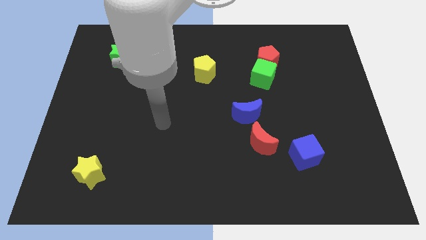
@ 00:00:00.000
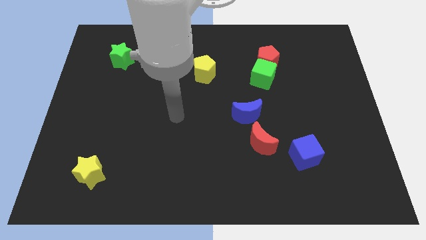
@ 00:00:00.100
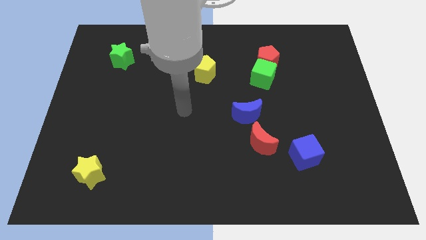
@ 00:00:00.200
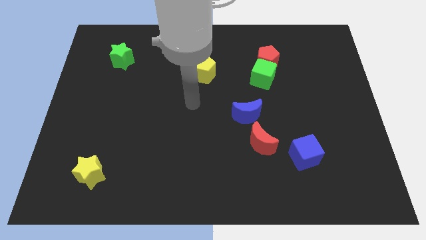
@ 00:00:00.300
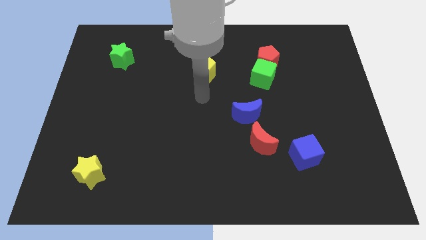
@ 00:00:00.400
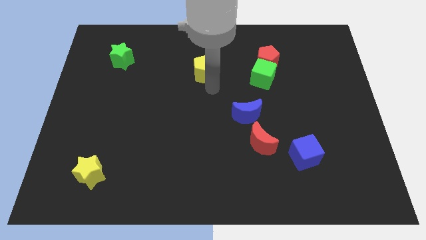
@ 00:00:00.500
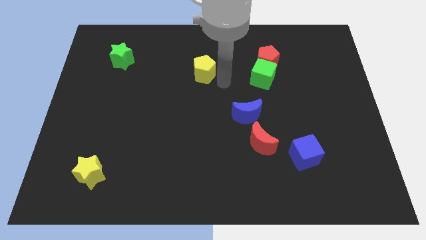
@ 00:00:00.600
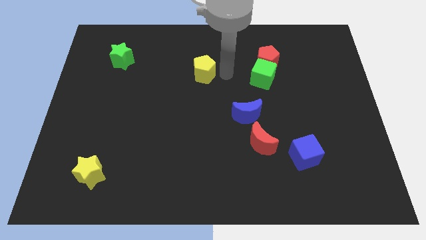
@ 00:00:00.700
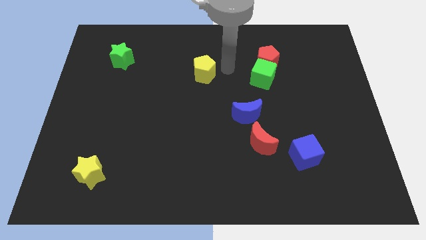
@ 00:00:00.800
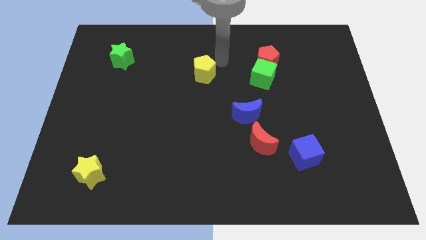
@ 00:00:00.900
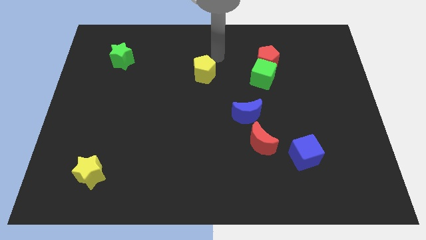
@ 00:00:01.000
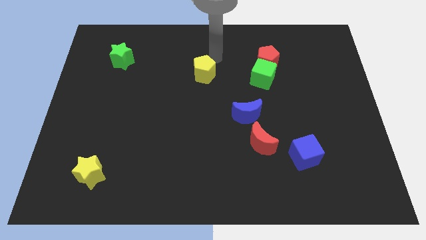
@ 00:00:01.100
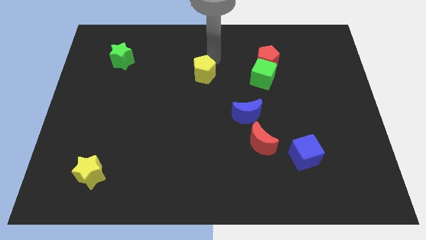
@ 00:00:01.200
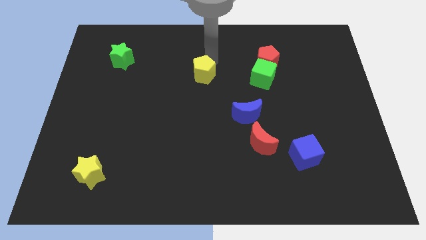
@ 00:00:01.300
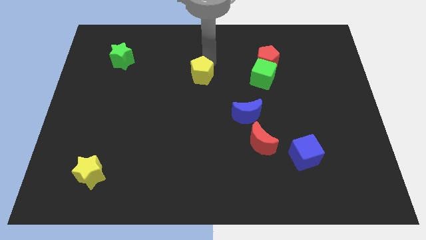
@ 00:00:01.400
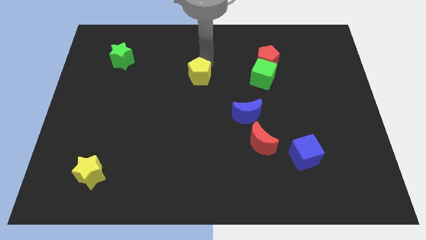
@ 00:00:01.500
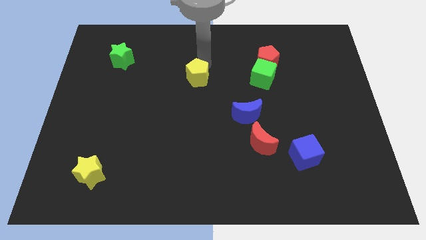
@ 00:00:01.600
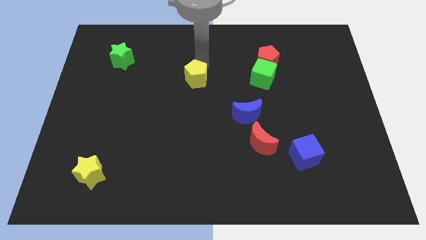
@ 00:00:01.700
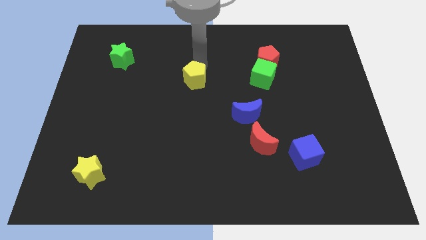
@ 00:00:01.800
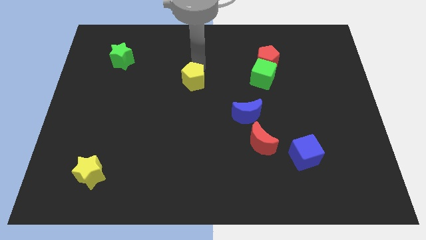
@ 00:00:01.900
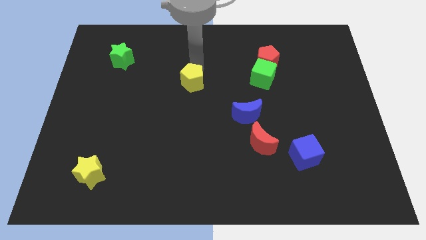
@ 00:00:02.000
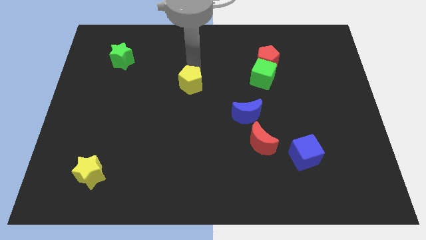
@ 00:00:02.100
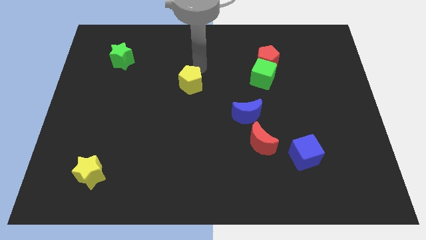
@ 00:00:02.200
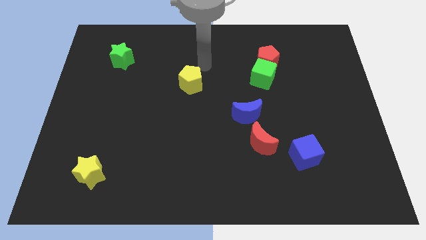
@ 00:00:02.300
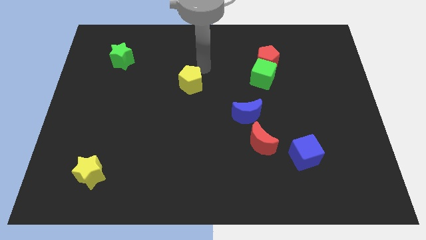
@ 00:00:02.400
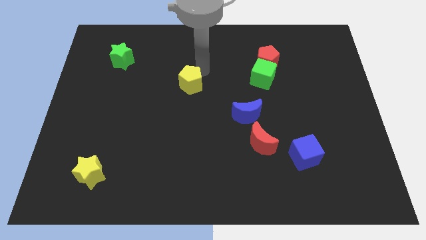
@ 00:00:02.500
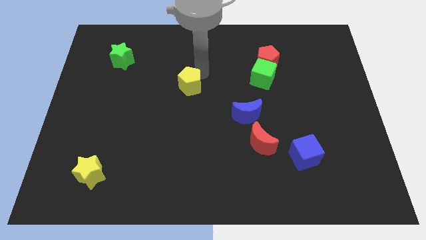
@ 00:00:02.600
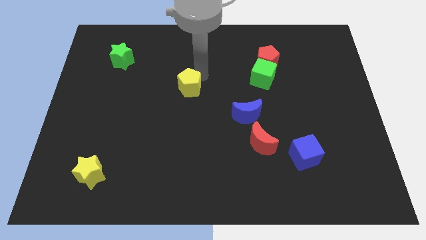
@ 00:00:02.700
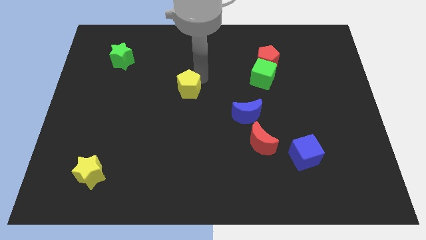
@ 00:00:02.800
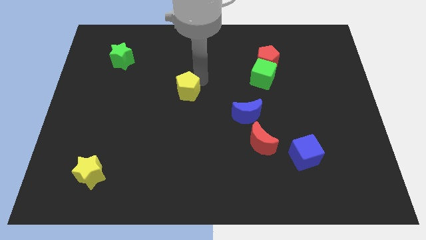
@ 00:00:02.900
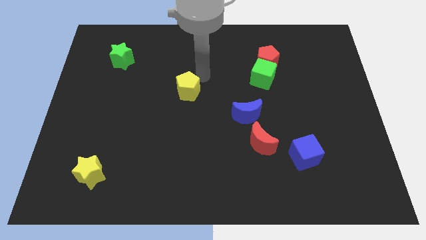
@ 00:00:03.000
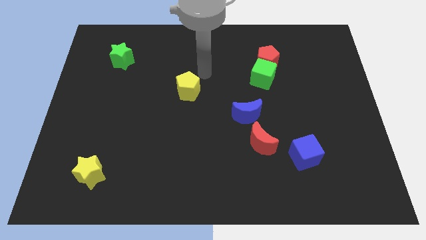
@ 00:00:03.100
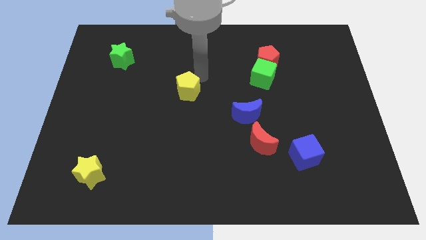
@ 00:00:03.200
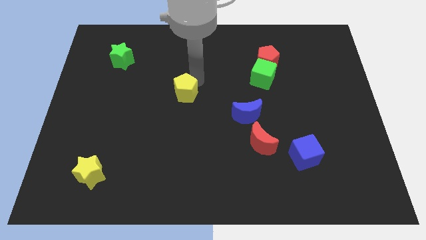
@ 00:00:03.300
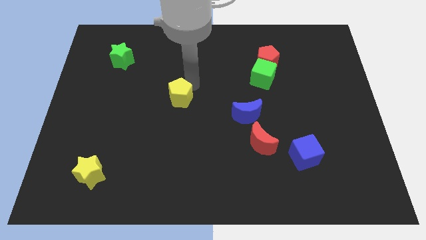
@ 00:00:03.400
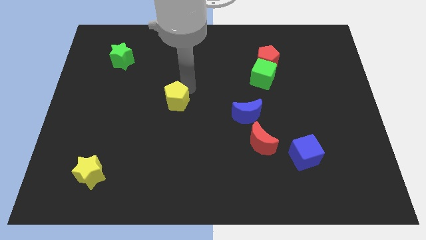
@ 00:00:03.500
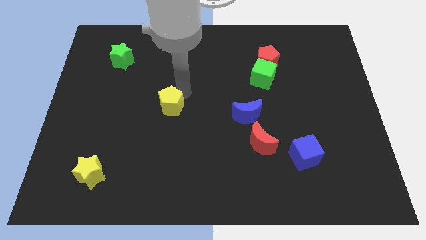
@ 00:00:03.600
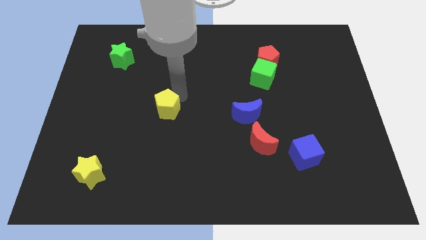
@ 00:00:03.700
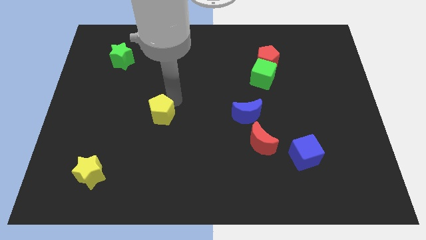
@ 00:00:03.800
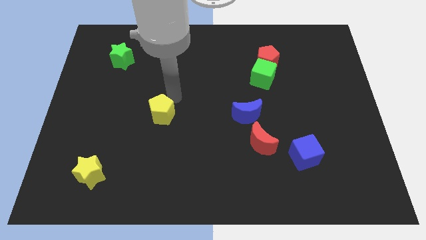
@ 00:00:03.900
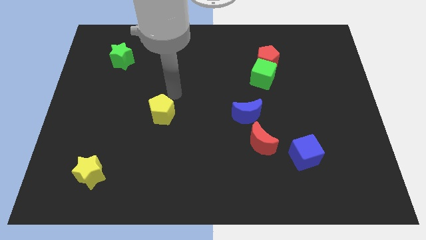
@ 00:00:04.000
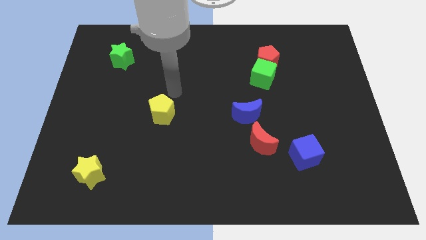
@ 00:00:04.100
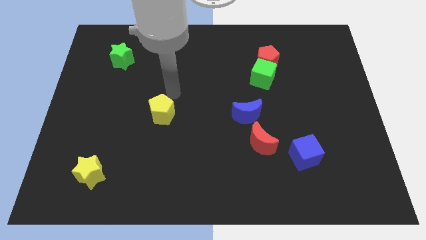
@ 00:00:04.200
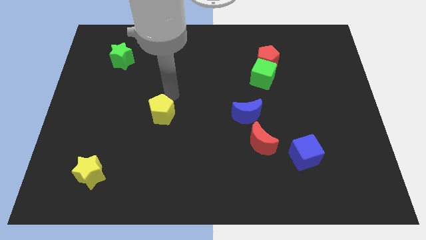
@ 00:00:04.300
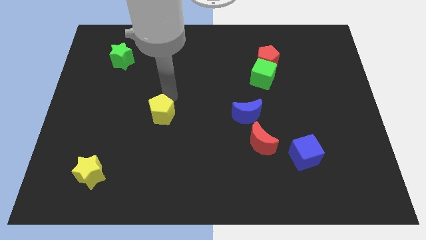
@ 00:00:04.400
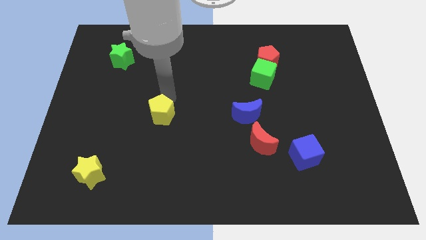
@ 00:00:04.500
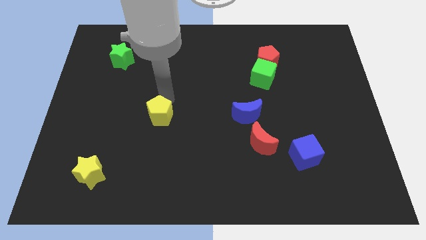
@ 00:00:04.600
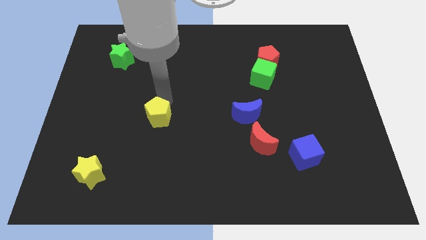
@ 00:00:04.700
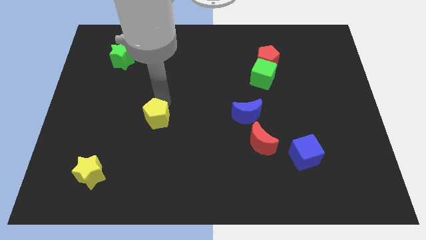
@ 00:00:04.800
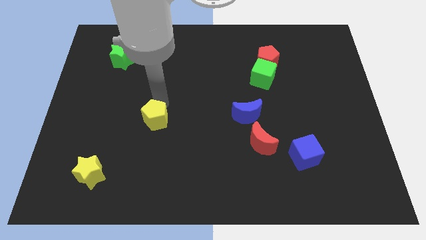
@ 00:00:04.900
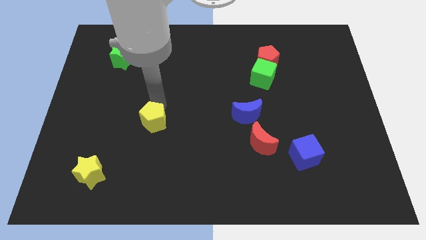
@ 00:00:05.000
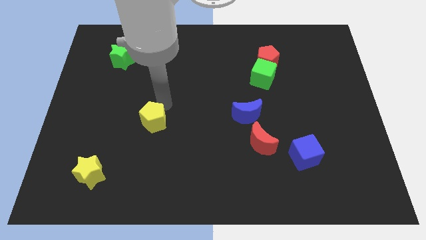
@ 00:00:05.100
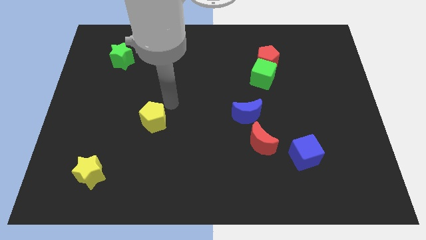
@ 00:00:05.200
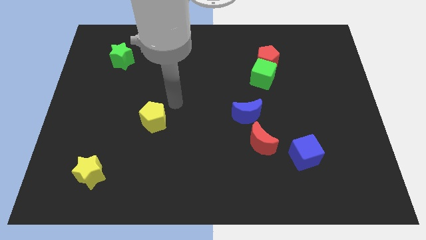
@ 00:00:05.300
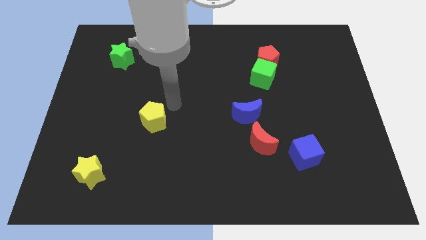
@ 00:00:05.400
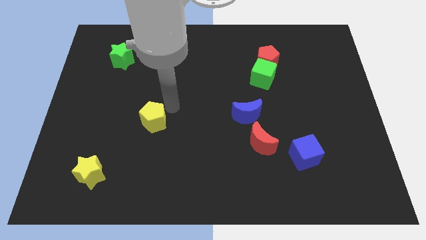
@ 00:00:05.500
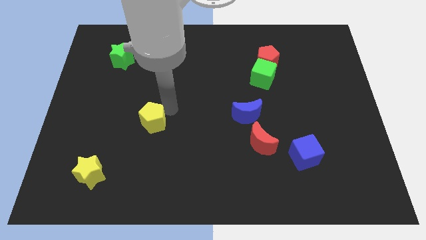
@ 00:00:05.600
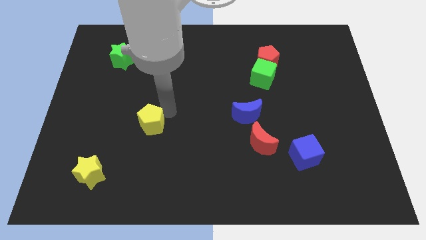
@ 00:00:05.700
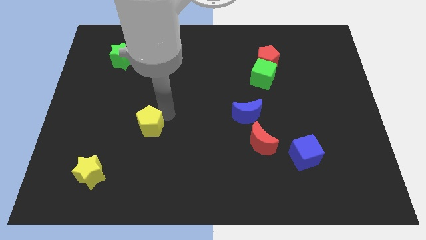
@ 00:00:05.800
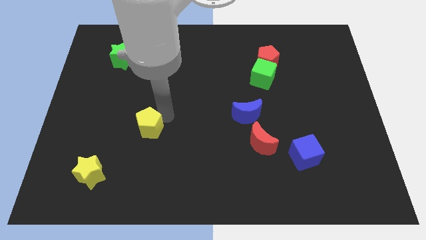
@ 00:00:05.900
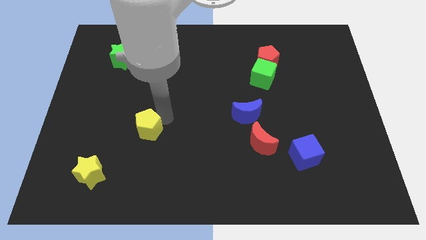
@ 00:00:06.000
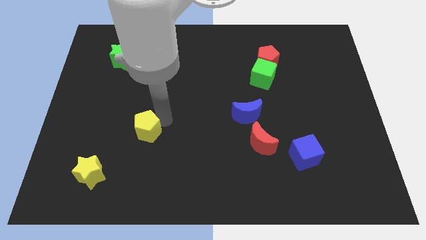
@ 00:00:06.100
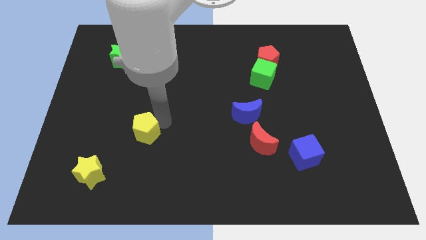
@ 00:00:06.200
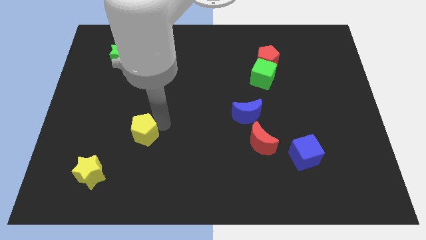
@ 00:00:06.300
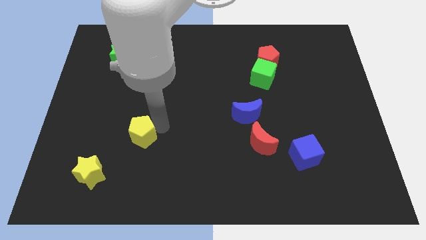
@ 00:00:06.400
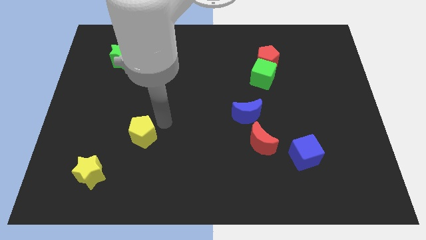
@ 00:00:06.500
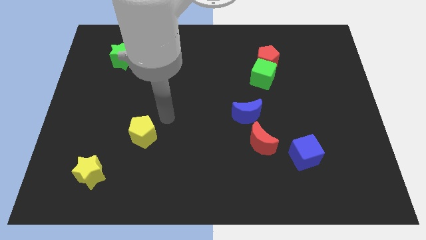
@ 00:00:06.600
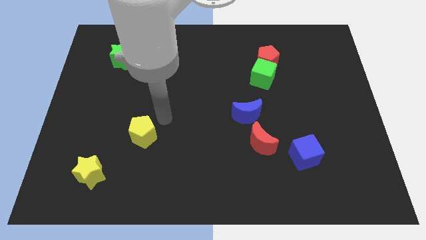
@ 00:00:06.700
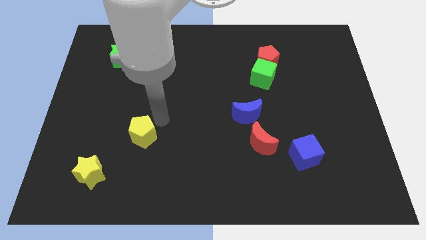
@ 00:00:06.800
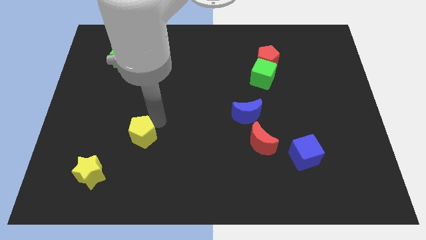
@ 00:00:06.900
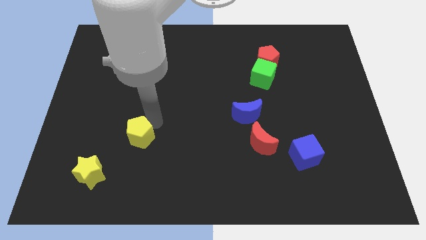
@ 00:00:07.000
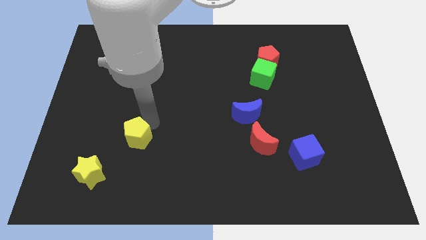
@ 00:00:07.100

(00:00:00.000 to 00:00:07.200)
move the yellow pentagon diagonally up and to the right of the yellow star

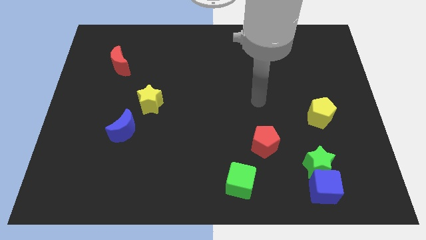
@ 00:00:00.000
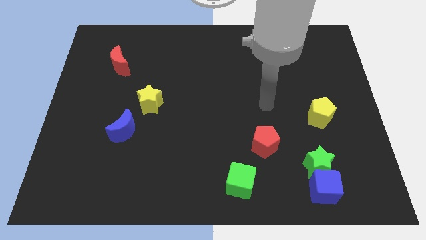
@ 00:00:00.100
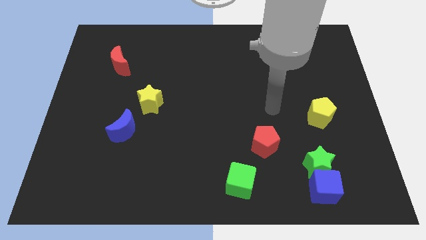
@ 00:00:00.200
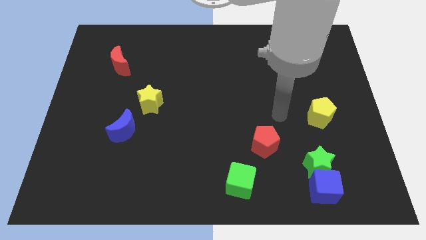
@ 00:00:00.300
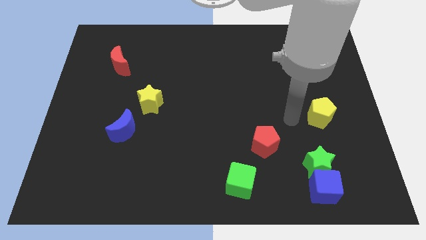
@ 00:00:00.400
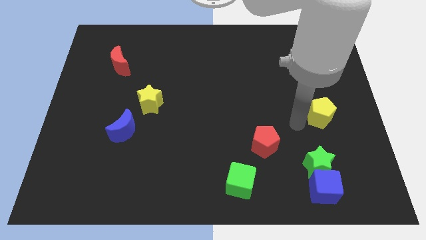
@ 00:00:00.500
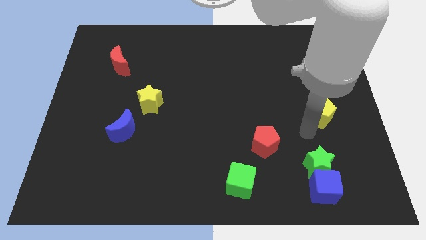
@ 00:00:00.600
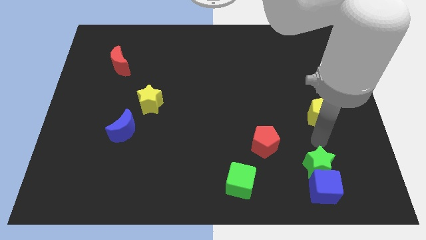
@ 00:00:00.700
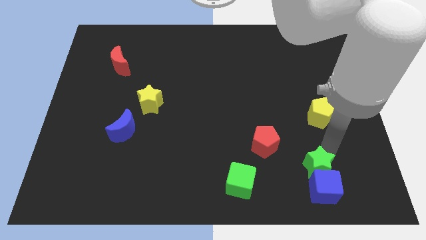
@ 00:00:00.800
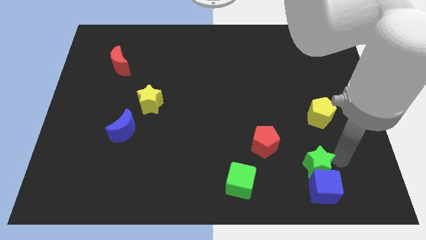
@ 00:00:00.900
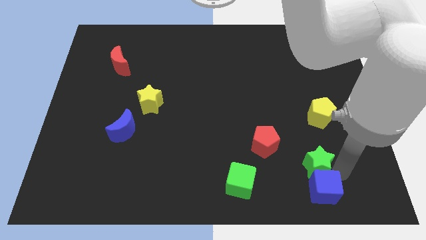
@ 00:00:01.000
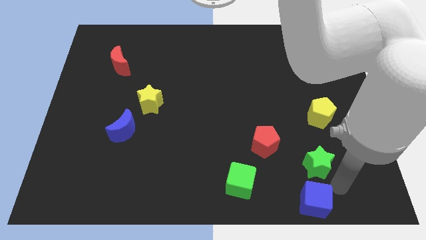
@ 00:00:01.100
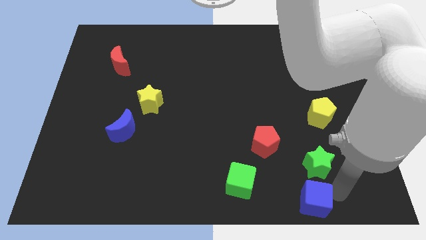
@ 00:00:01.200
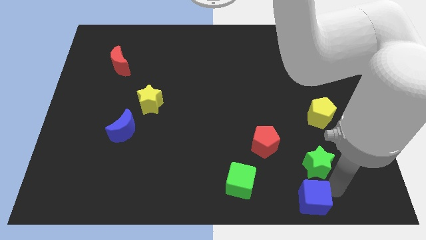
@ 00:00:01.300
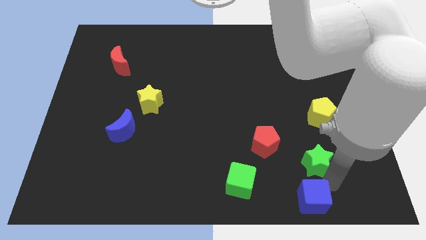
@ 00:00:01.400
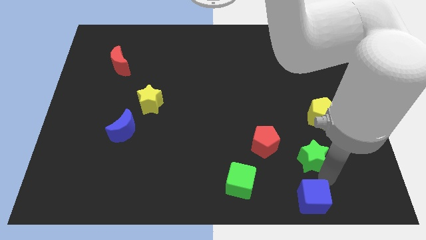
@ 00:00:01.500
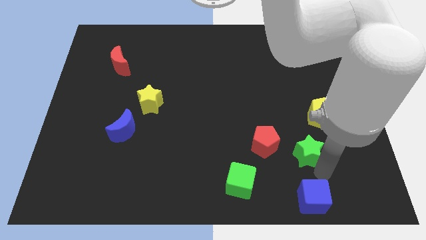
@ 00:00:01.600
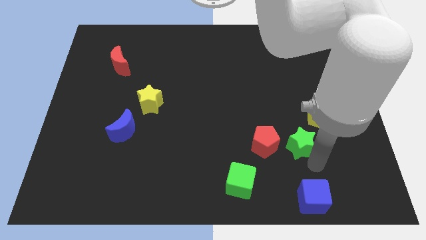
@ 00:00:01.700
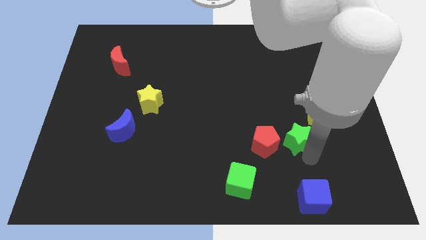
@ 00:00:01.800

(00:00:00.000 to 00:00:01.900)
put the green star diagonally up and to the right of the red pentagon
